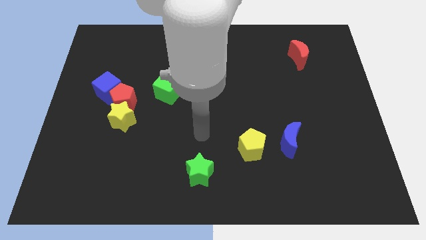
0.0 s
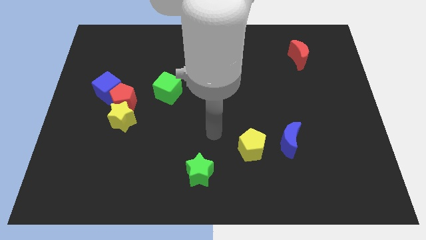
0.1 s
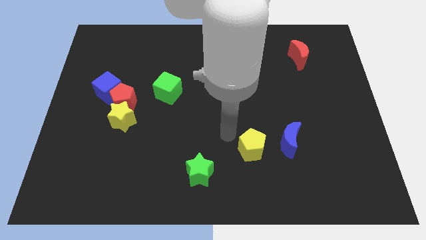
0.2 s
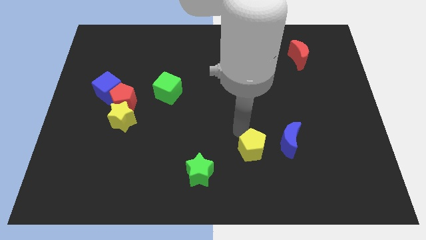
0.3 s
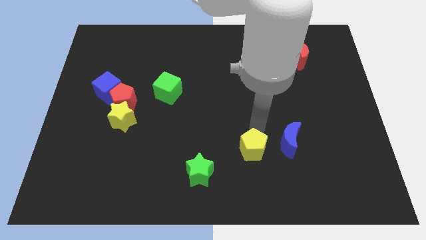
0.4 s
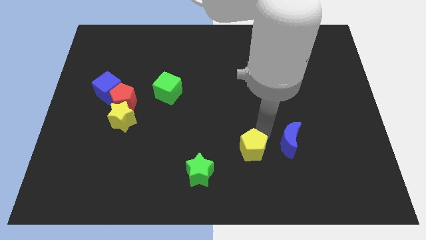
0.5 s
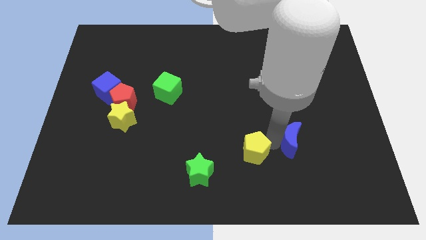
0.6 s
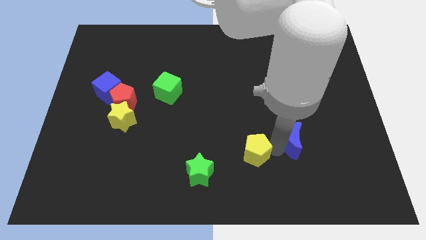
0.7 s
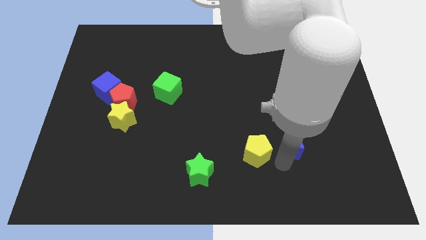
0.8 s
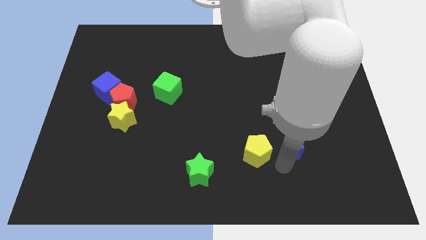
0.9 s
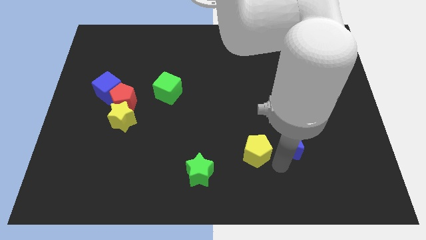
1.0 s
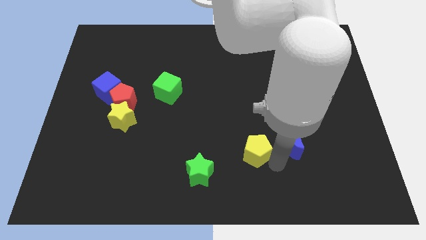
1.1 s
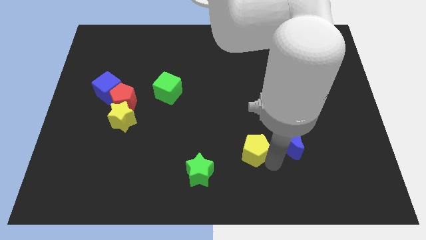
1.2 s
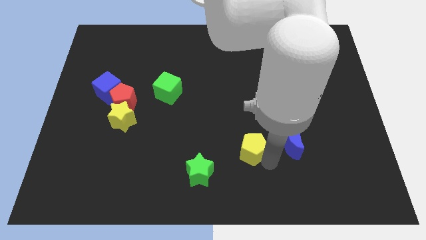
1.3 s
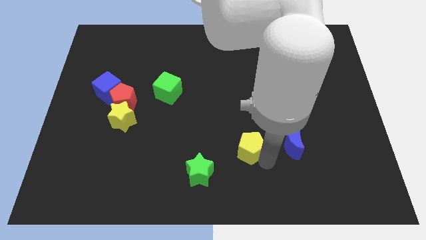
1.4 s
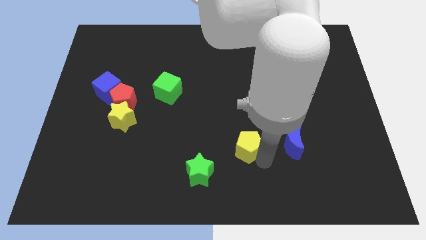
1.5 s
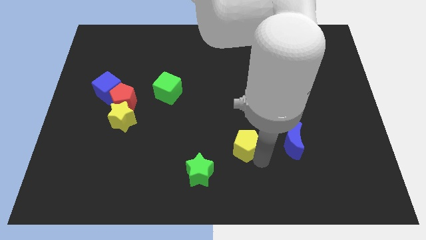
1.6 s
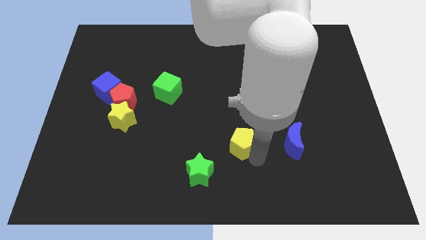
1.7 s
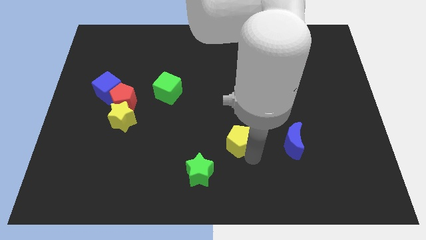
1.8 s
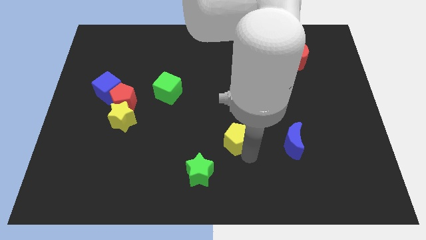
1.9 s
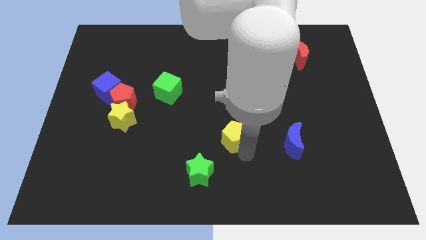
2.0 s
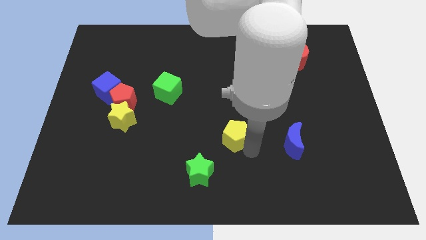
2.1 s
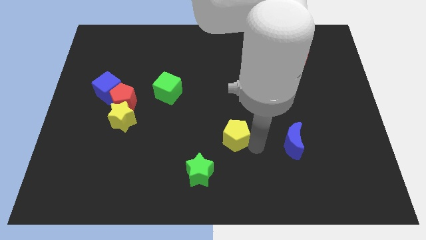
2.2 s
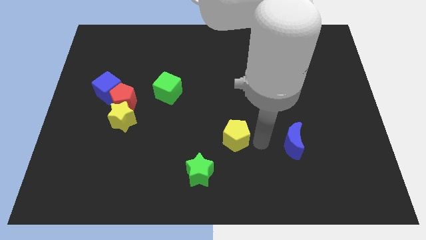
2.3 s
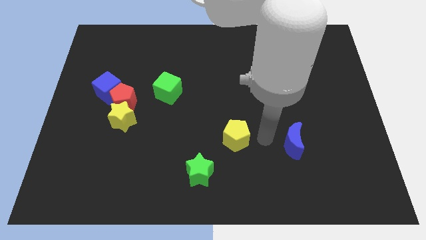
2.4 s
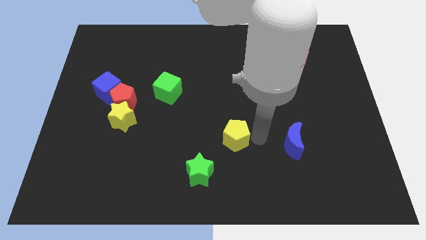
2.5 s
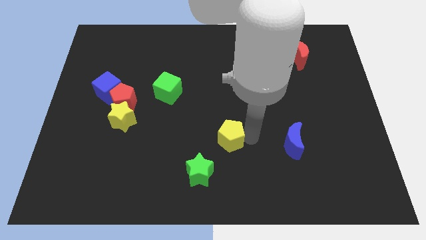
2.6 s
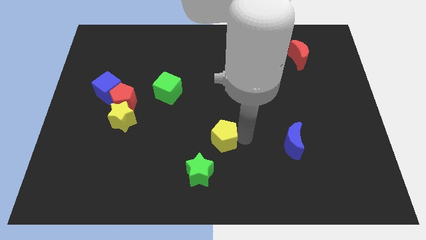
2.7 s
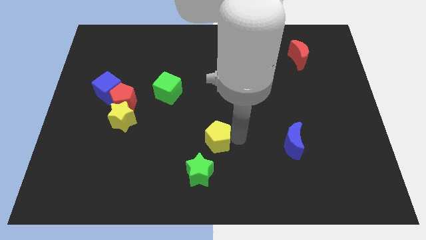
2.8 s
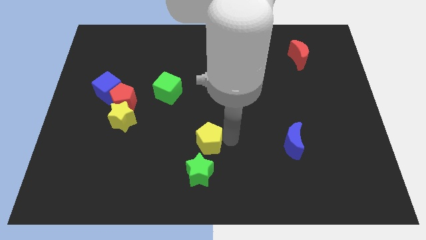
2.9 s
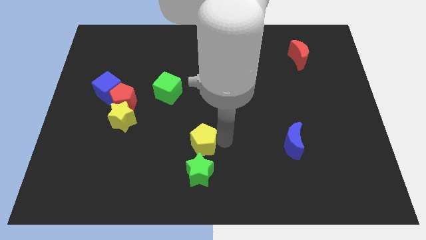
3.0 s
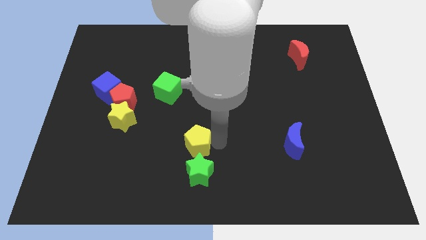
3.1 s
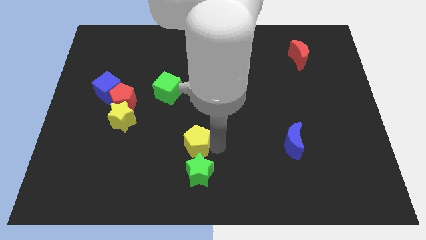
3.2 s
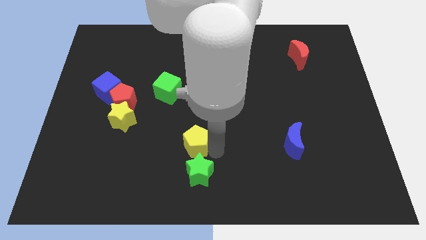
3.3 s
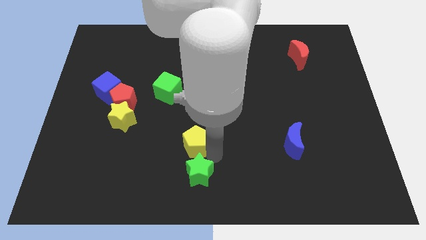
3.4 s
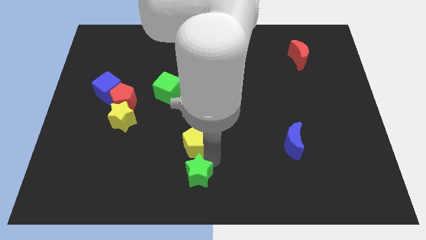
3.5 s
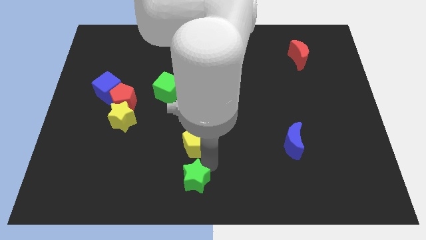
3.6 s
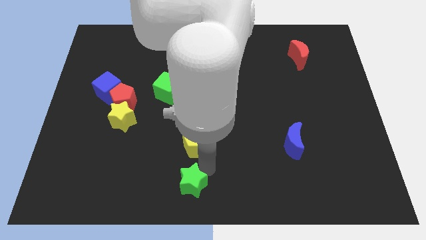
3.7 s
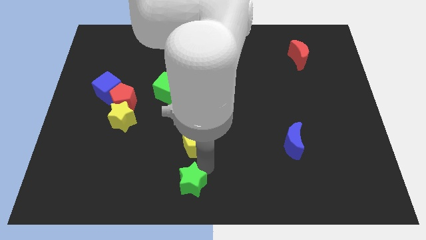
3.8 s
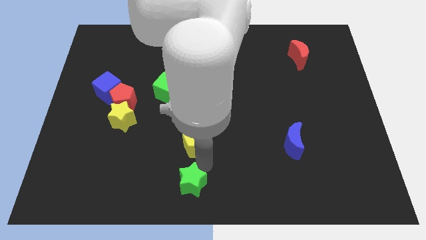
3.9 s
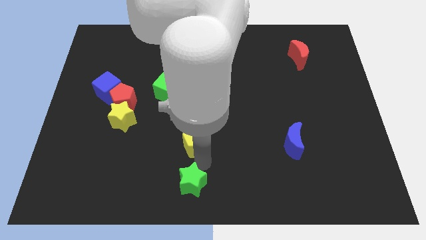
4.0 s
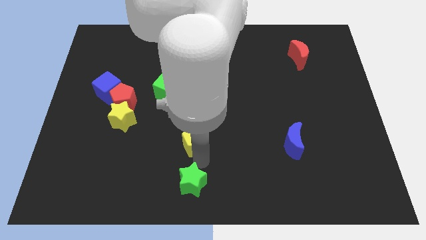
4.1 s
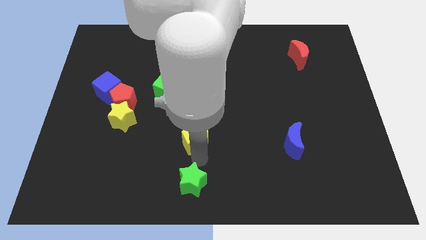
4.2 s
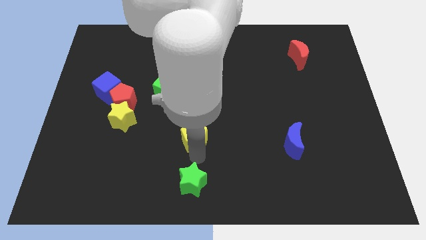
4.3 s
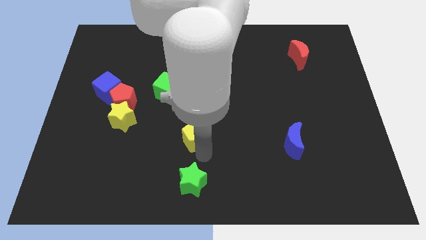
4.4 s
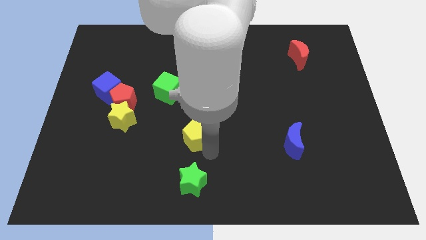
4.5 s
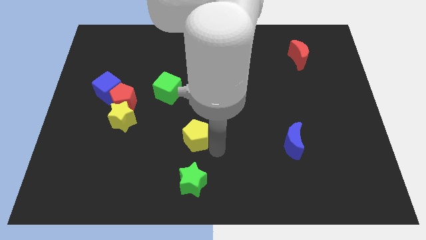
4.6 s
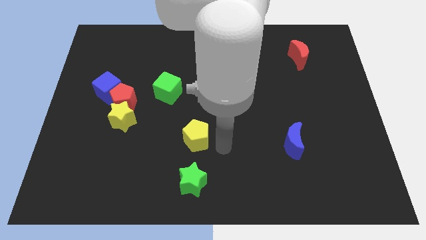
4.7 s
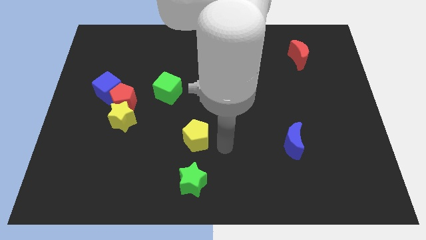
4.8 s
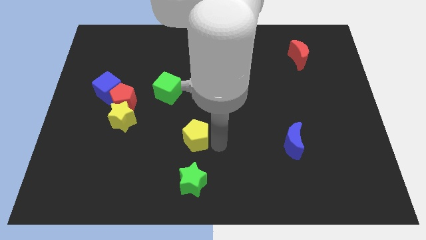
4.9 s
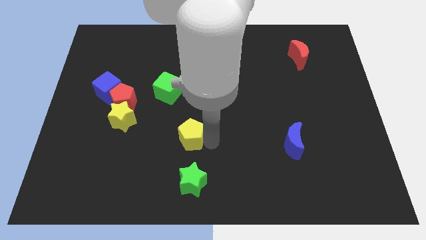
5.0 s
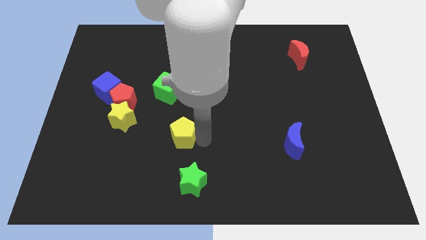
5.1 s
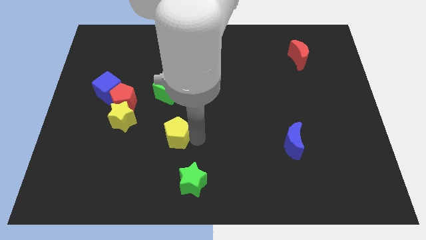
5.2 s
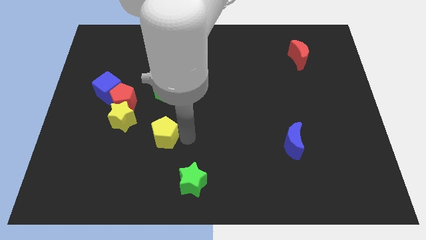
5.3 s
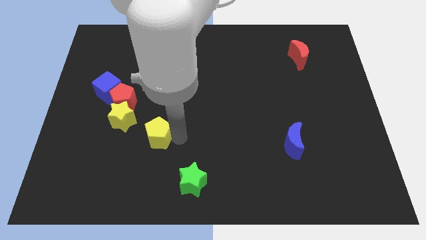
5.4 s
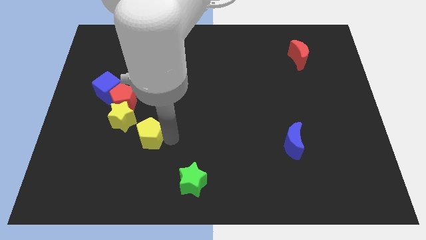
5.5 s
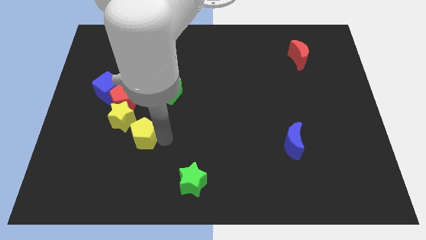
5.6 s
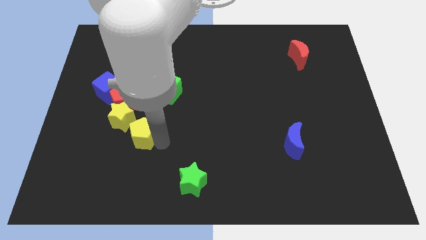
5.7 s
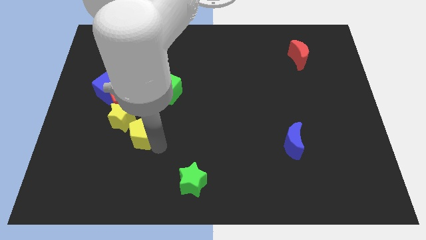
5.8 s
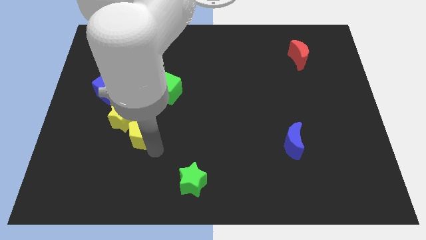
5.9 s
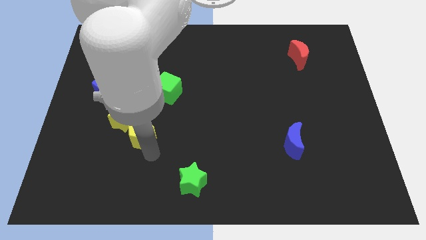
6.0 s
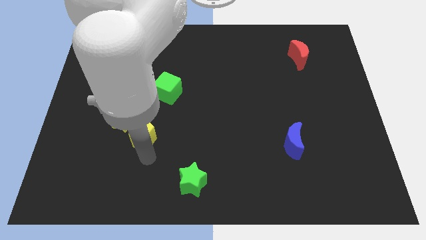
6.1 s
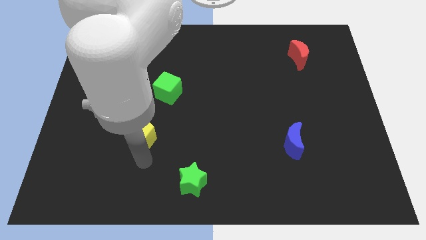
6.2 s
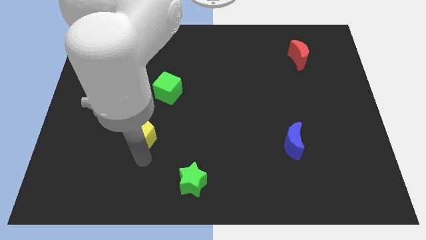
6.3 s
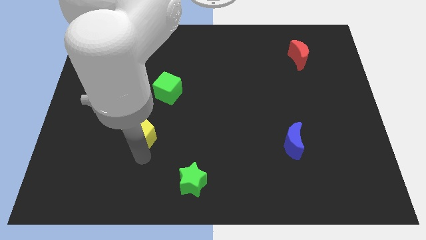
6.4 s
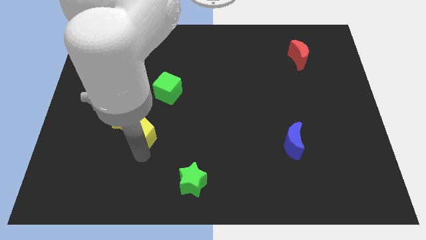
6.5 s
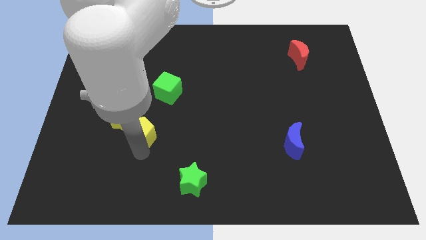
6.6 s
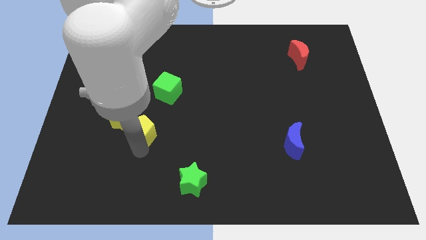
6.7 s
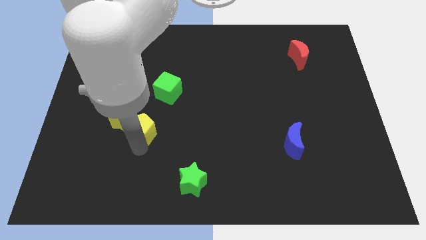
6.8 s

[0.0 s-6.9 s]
push the yellow pentagon close to the yellow star
